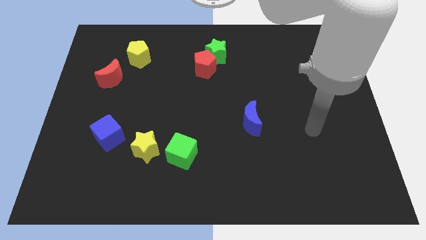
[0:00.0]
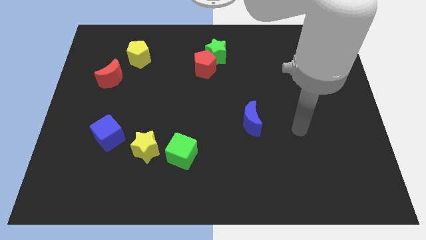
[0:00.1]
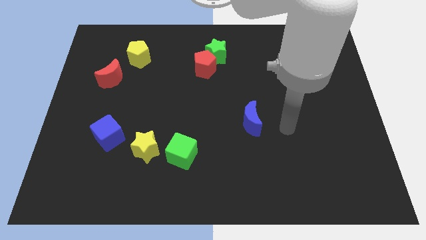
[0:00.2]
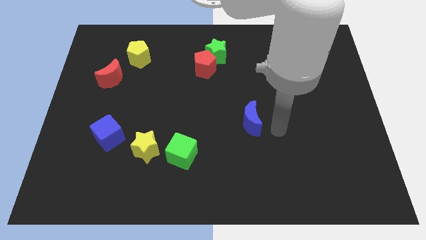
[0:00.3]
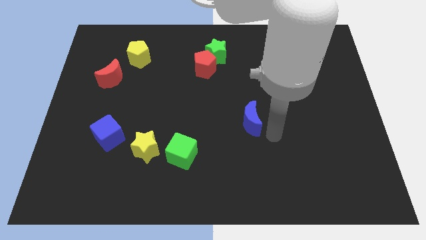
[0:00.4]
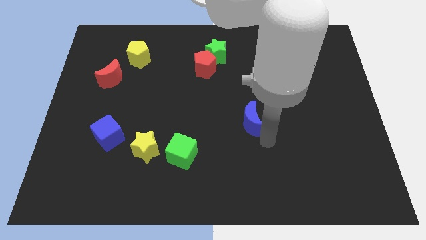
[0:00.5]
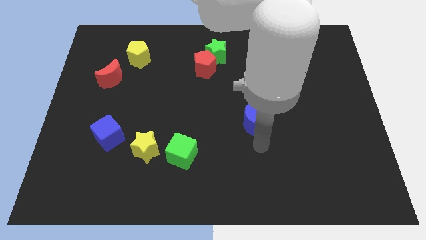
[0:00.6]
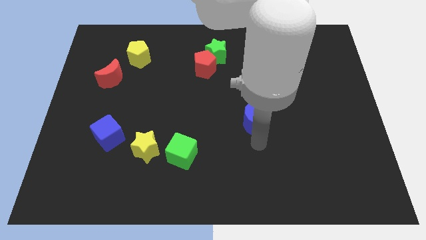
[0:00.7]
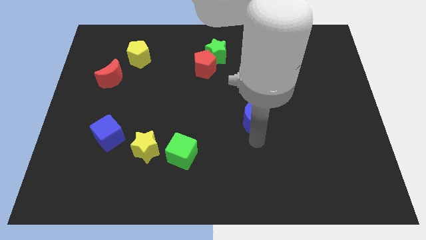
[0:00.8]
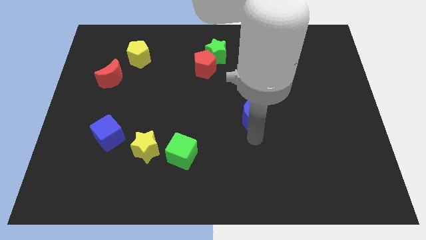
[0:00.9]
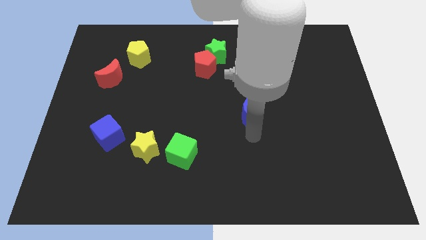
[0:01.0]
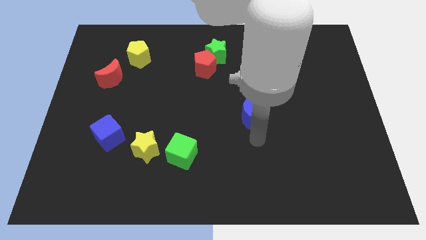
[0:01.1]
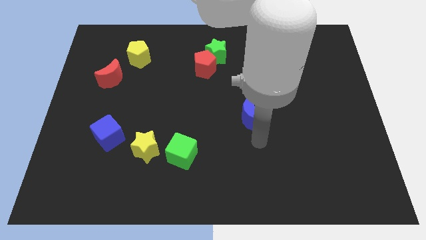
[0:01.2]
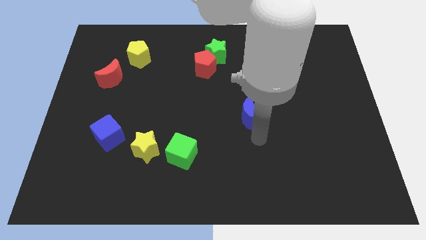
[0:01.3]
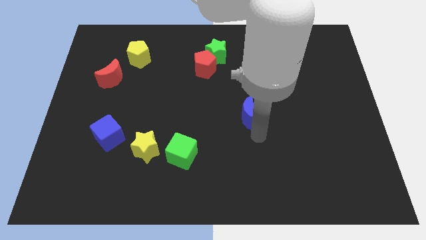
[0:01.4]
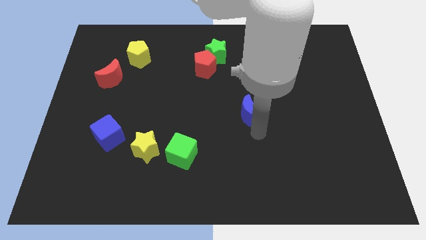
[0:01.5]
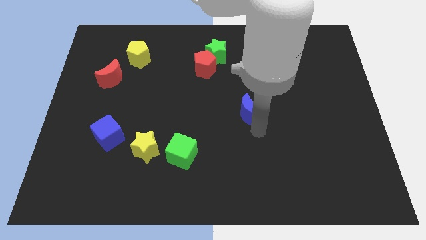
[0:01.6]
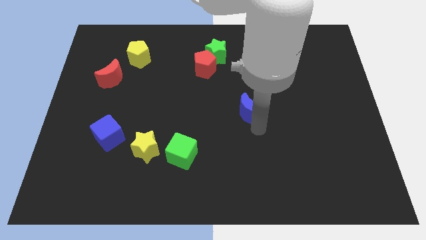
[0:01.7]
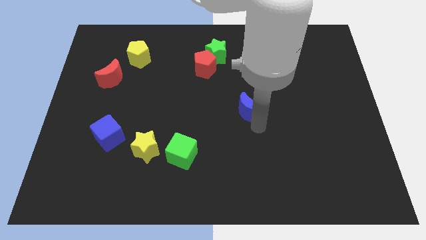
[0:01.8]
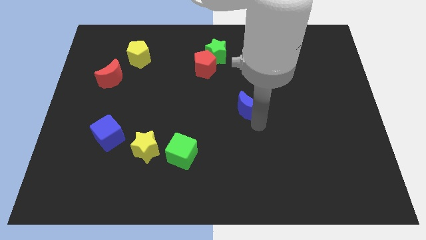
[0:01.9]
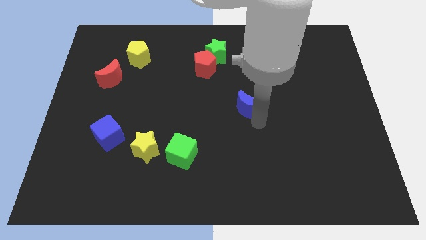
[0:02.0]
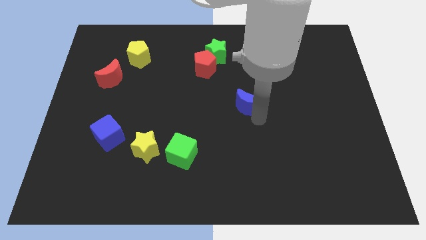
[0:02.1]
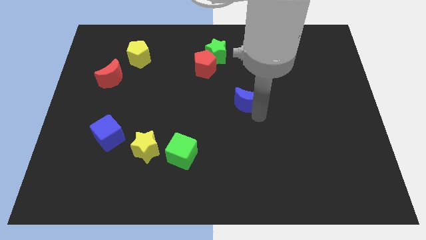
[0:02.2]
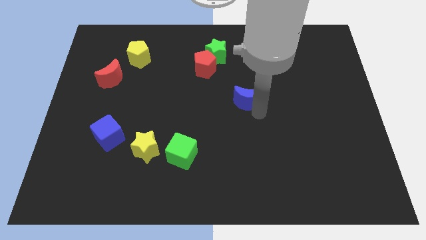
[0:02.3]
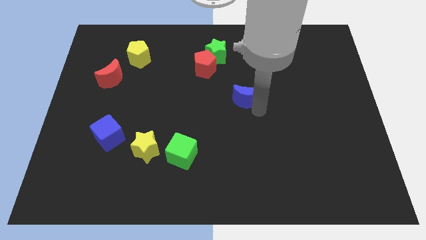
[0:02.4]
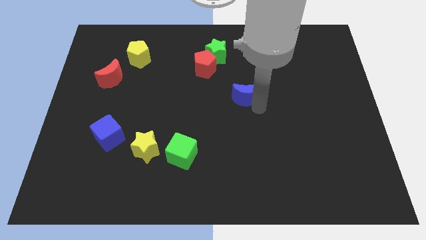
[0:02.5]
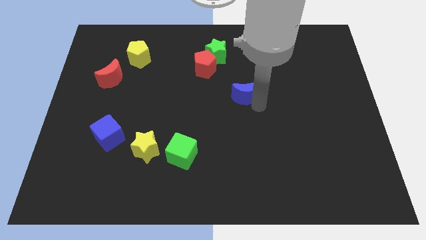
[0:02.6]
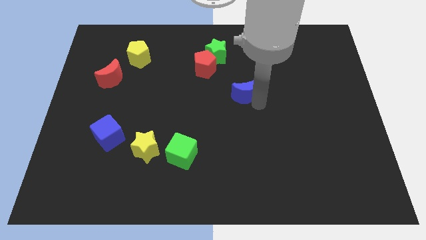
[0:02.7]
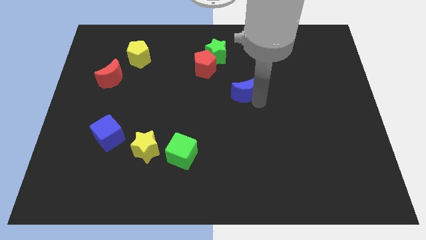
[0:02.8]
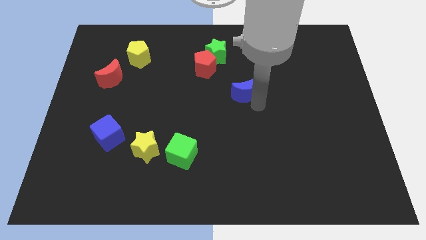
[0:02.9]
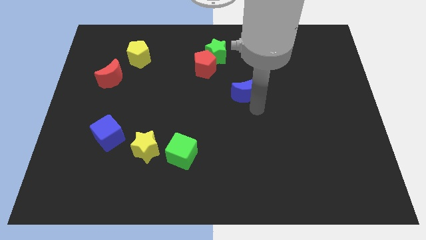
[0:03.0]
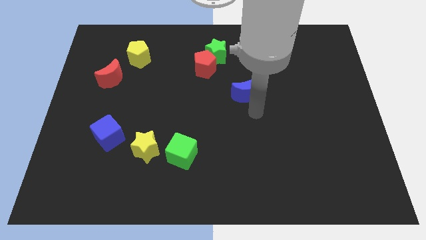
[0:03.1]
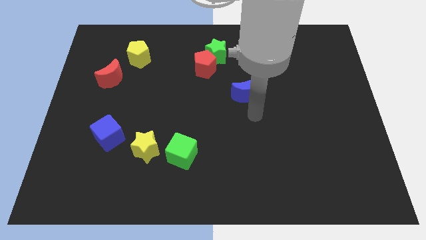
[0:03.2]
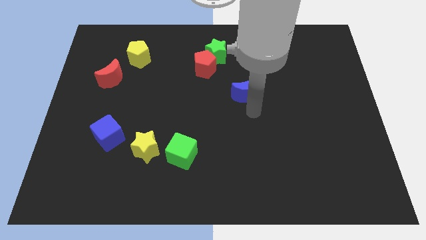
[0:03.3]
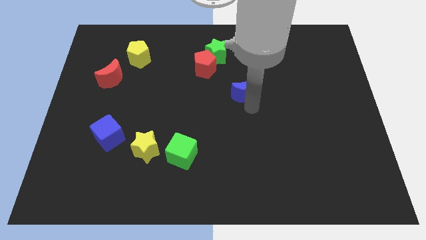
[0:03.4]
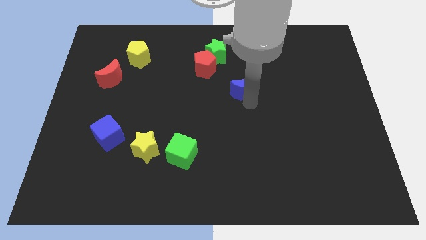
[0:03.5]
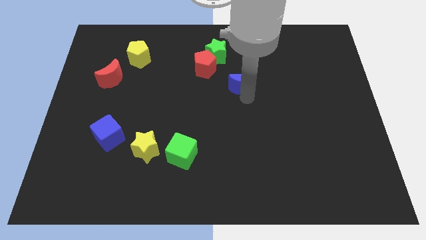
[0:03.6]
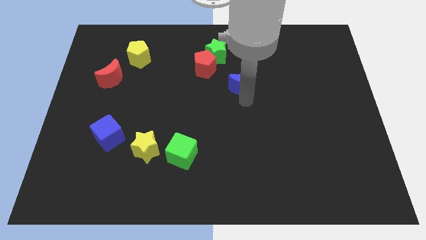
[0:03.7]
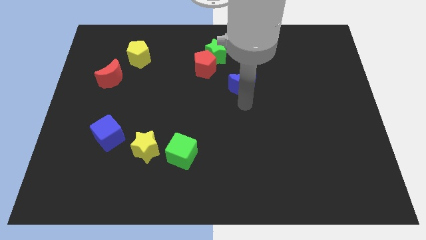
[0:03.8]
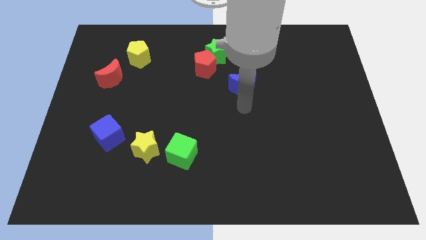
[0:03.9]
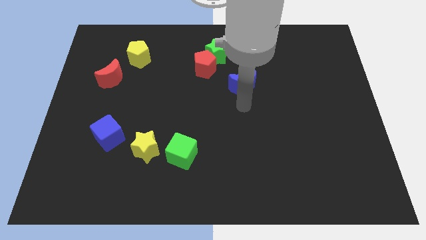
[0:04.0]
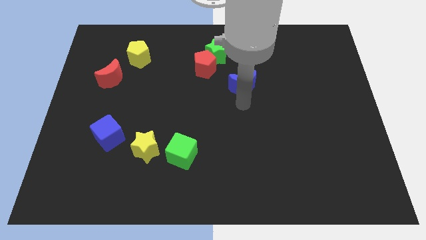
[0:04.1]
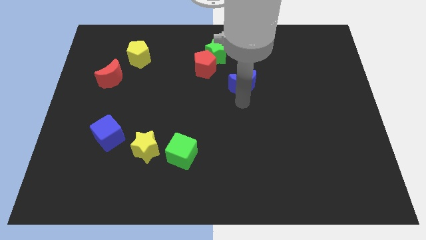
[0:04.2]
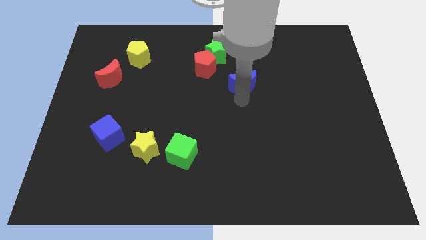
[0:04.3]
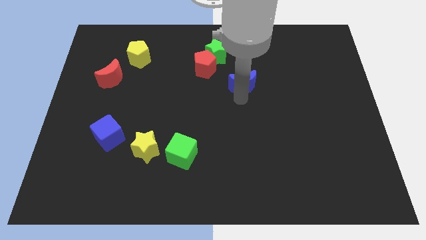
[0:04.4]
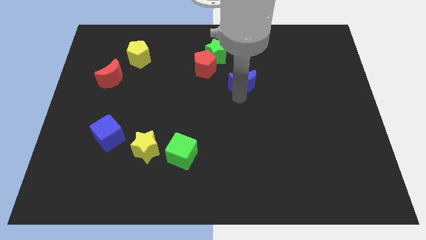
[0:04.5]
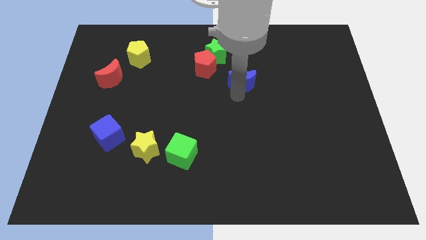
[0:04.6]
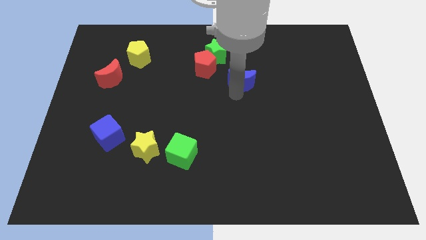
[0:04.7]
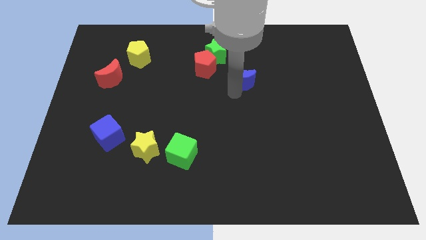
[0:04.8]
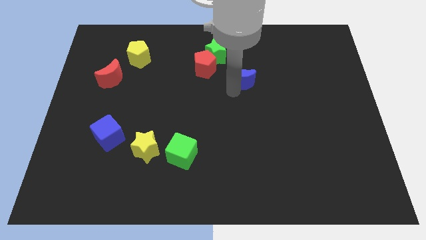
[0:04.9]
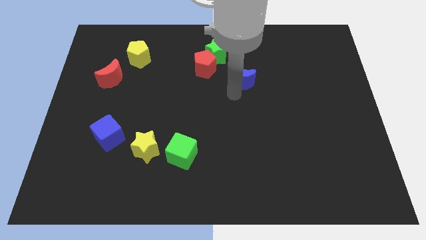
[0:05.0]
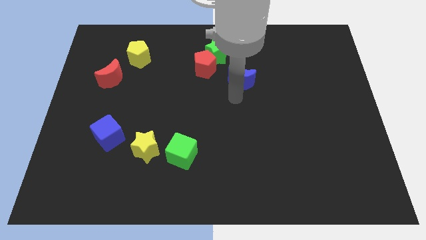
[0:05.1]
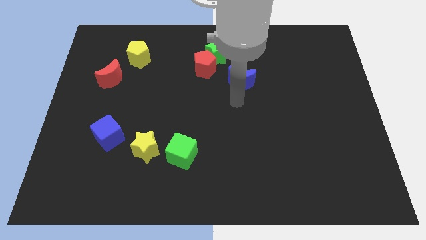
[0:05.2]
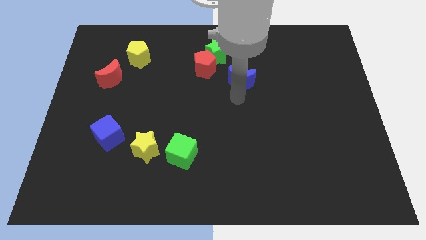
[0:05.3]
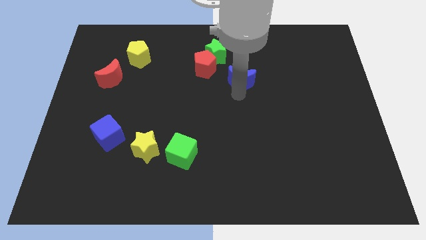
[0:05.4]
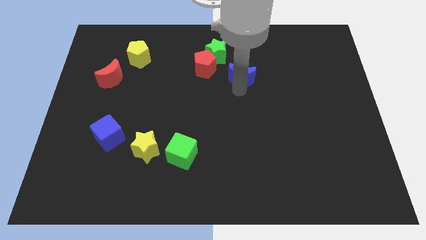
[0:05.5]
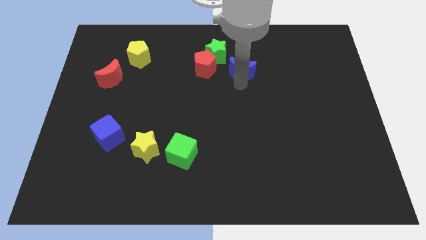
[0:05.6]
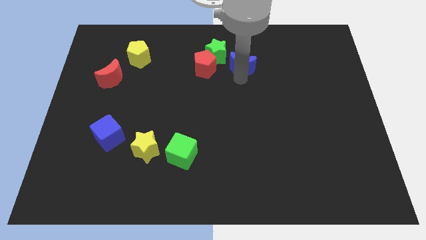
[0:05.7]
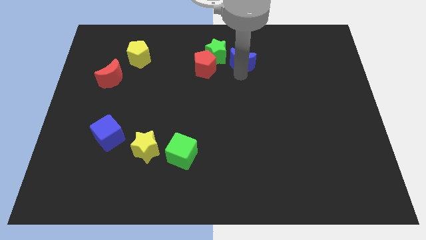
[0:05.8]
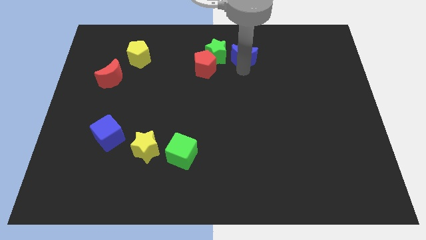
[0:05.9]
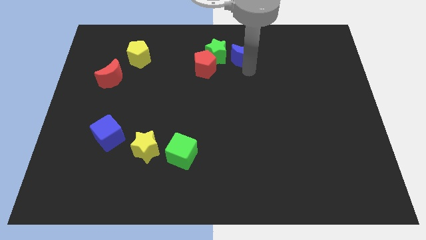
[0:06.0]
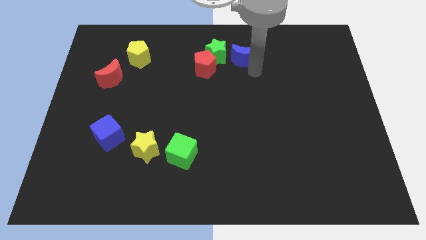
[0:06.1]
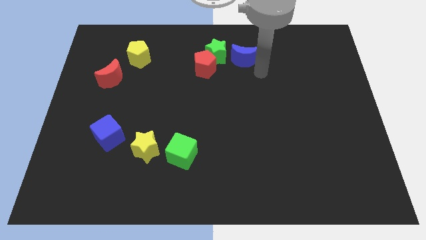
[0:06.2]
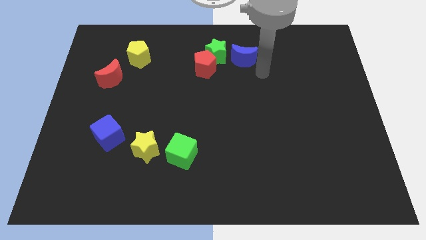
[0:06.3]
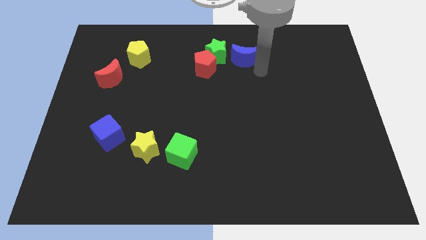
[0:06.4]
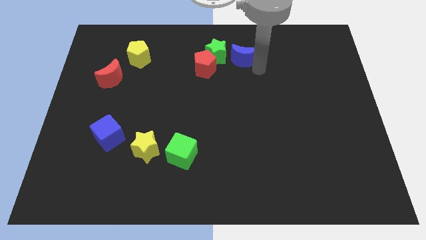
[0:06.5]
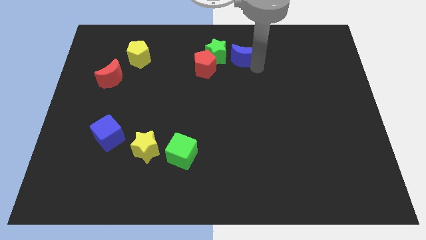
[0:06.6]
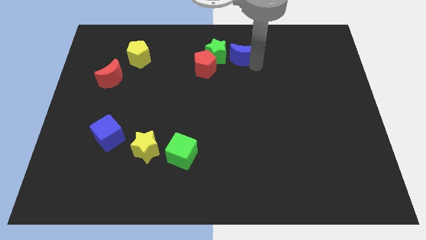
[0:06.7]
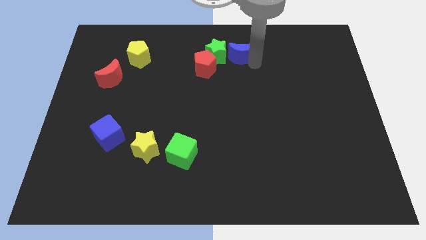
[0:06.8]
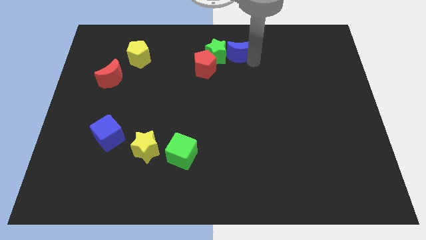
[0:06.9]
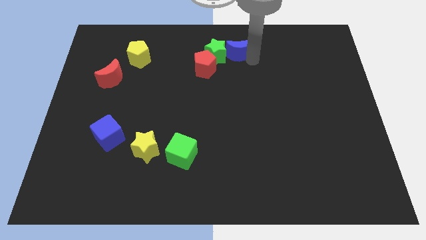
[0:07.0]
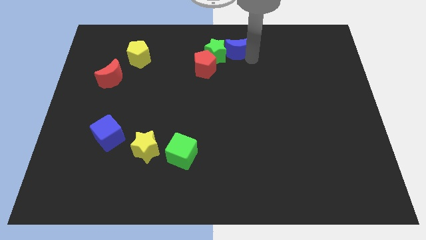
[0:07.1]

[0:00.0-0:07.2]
slide the blue moon to the towards your base
